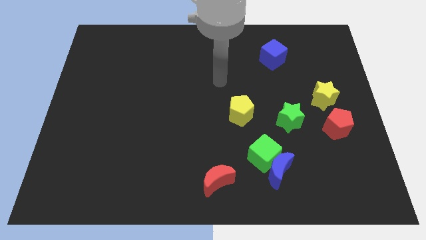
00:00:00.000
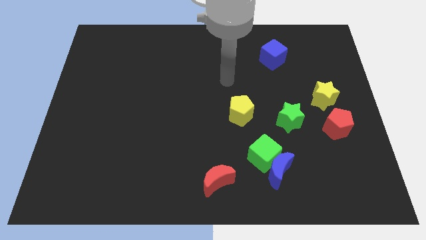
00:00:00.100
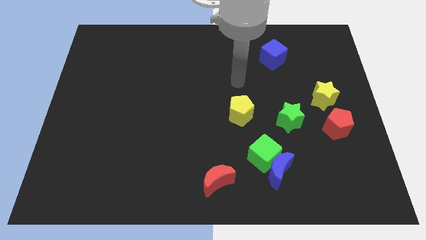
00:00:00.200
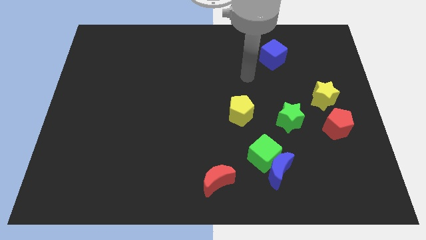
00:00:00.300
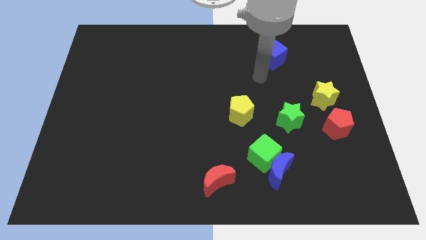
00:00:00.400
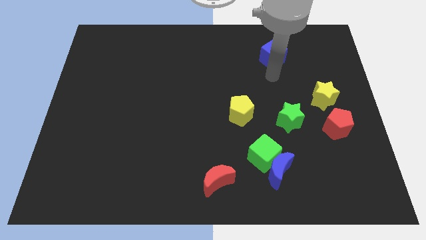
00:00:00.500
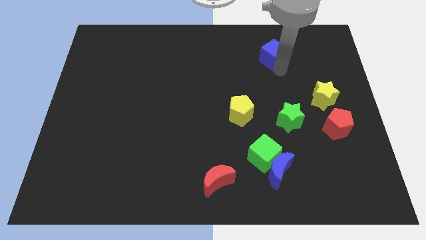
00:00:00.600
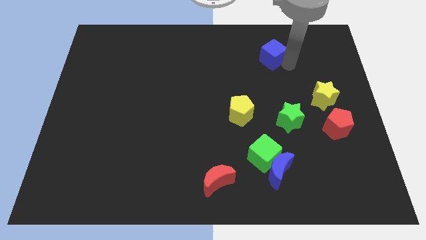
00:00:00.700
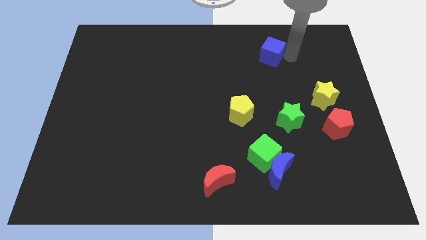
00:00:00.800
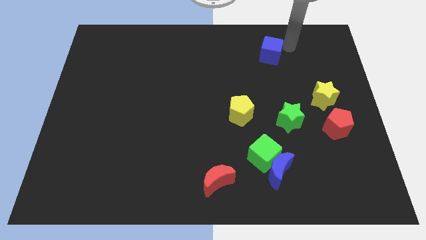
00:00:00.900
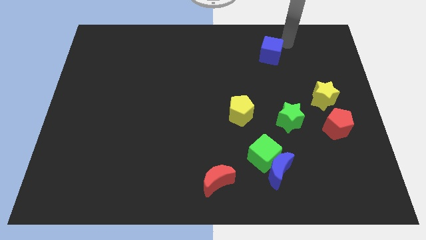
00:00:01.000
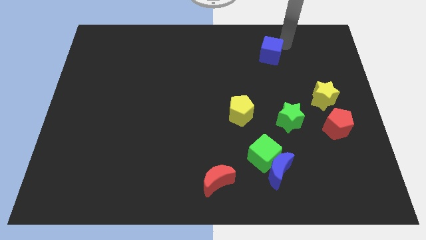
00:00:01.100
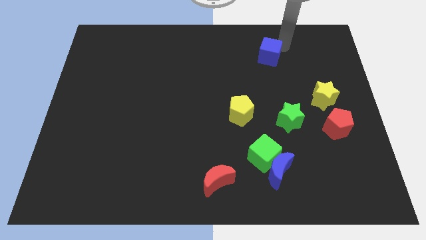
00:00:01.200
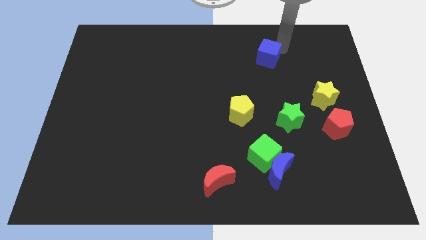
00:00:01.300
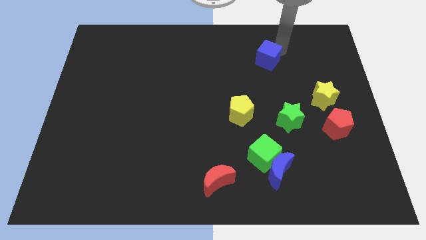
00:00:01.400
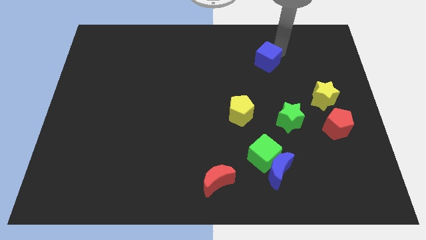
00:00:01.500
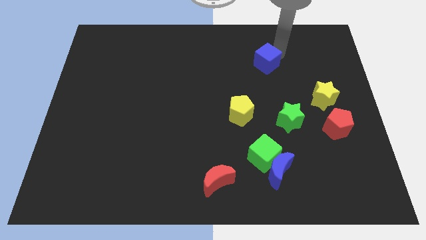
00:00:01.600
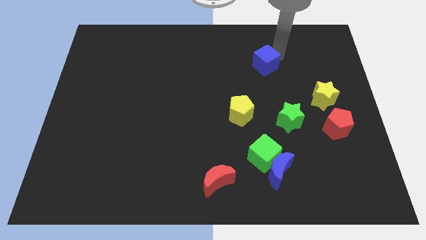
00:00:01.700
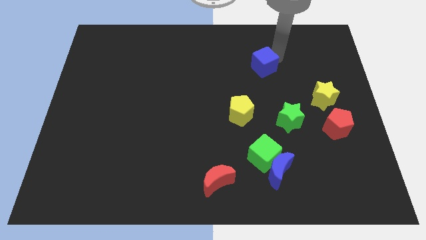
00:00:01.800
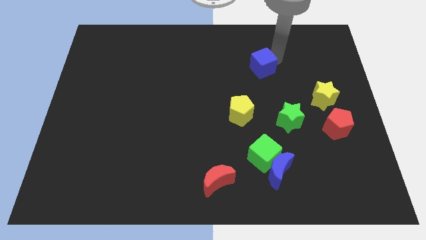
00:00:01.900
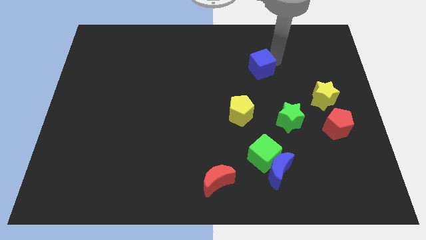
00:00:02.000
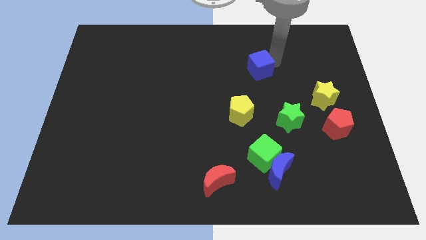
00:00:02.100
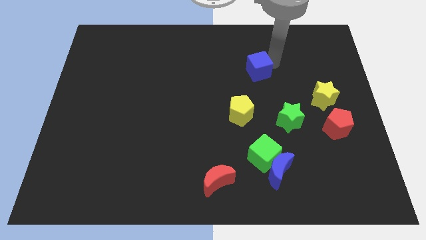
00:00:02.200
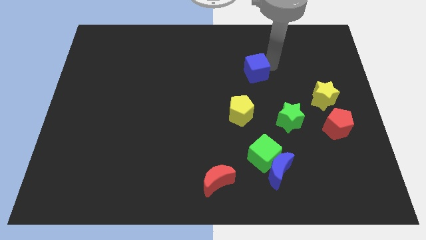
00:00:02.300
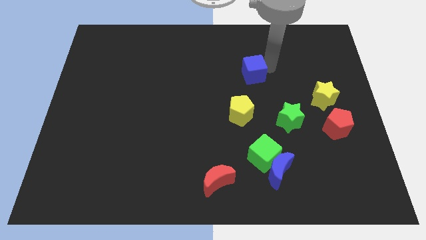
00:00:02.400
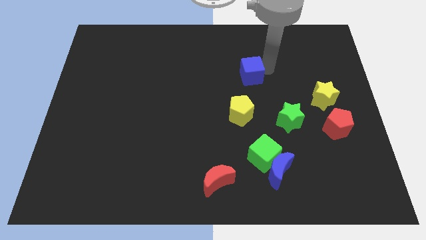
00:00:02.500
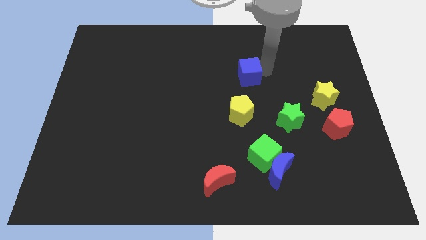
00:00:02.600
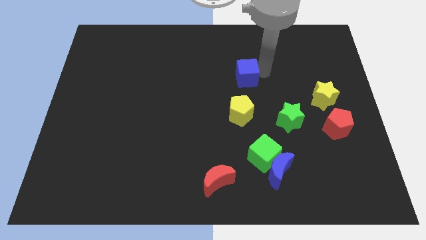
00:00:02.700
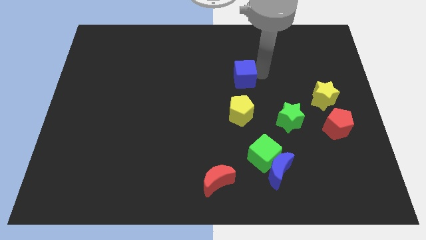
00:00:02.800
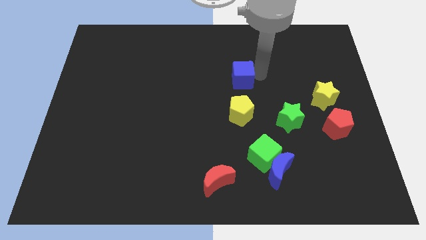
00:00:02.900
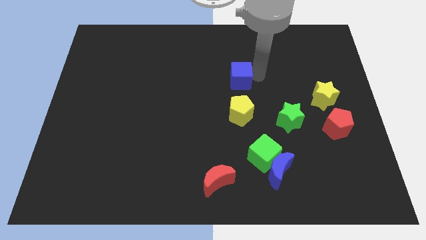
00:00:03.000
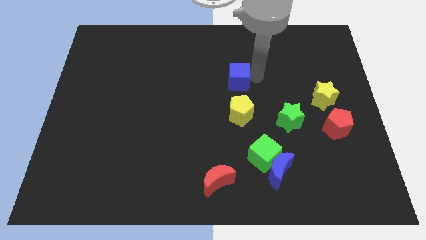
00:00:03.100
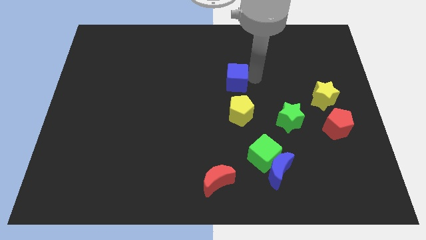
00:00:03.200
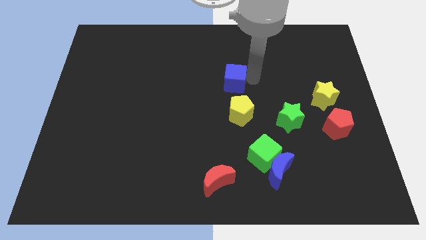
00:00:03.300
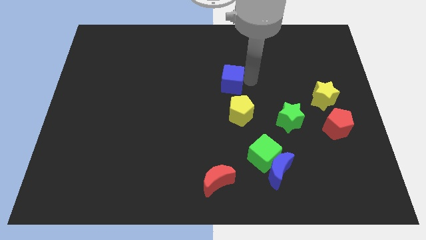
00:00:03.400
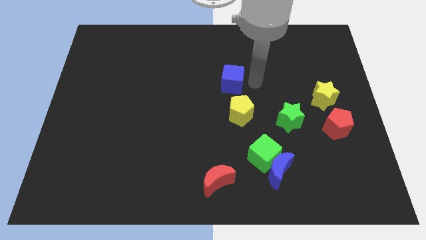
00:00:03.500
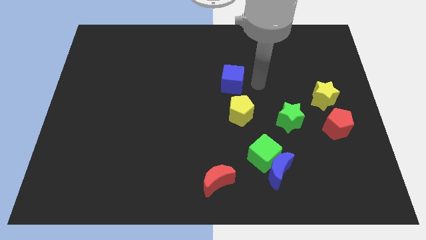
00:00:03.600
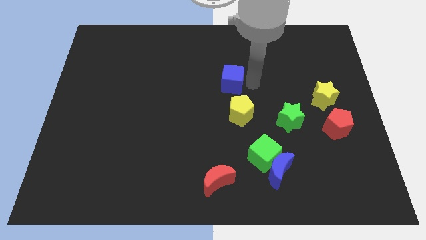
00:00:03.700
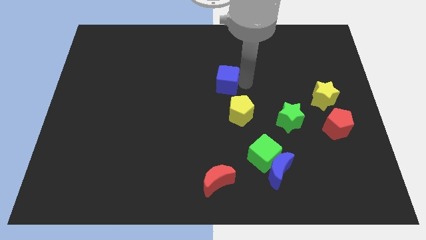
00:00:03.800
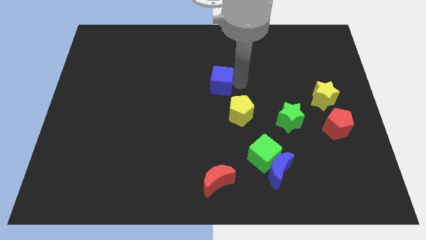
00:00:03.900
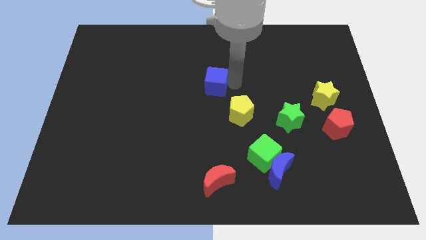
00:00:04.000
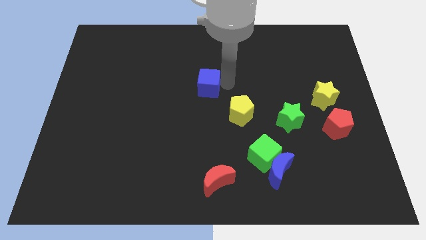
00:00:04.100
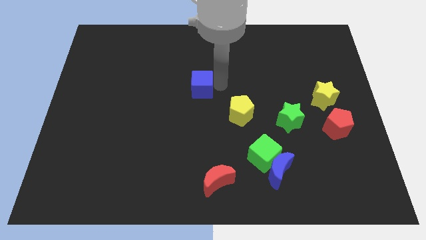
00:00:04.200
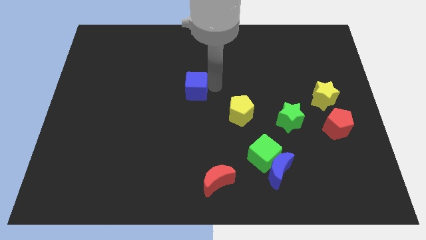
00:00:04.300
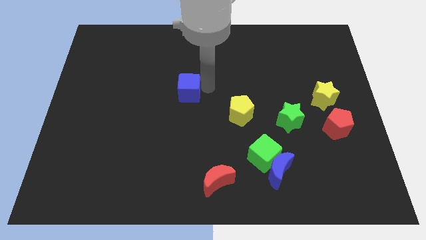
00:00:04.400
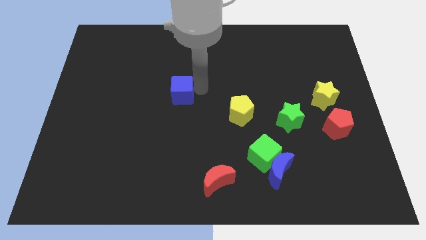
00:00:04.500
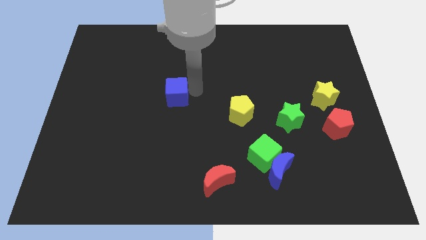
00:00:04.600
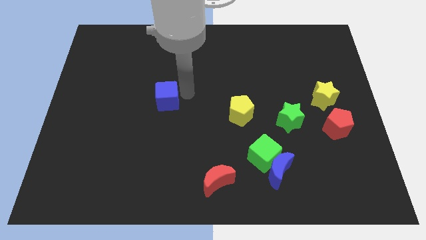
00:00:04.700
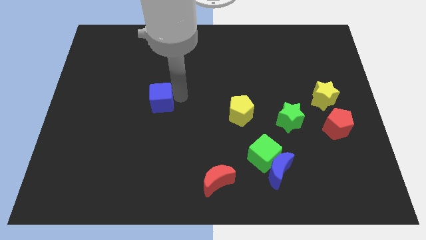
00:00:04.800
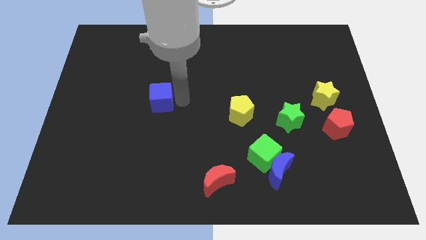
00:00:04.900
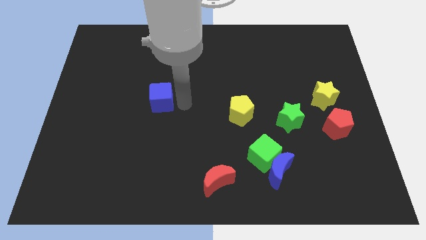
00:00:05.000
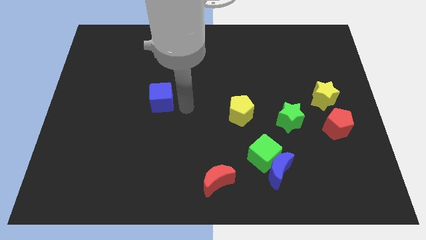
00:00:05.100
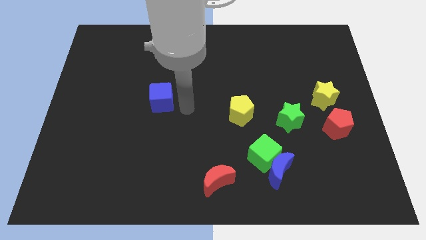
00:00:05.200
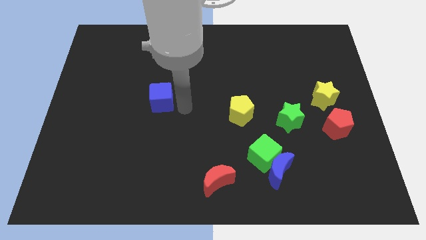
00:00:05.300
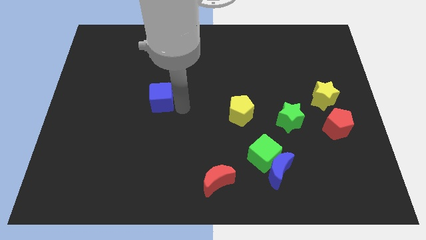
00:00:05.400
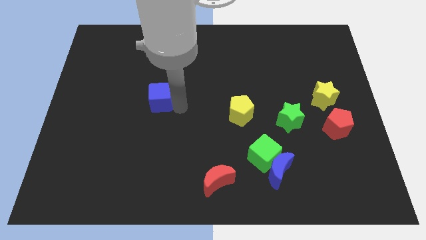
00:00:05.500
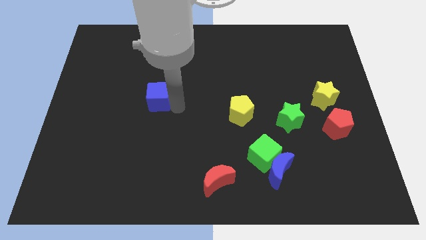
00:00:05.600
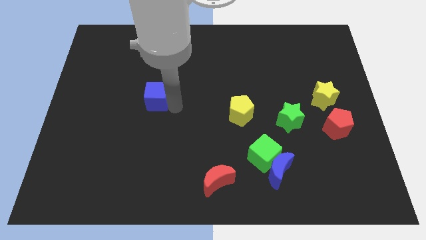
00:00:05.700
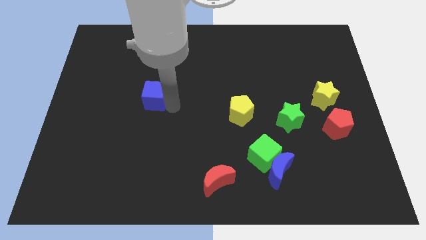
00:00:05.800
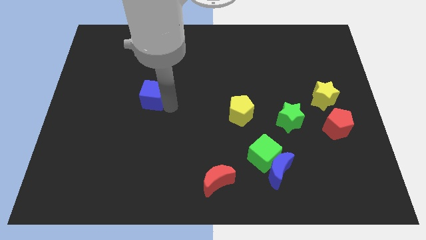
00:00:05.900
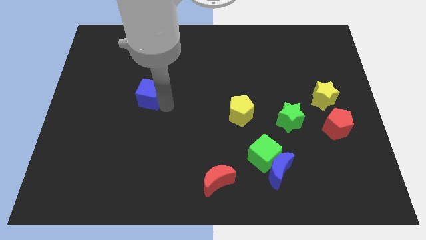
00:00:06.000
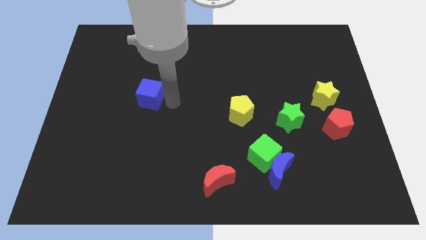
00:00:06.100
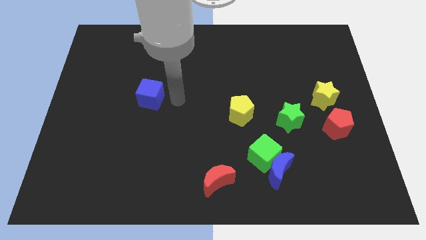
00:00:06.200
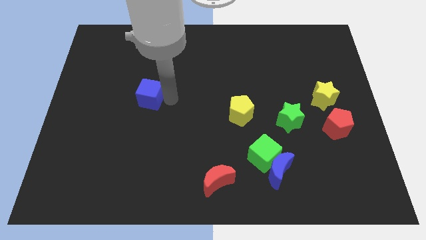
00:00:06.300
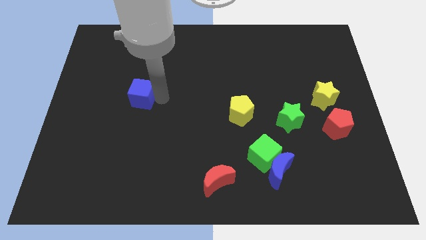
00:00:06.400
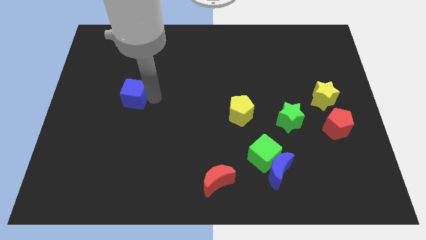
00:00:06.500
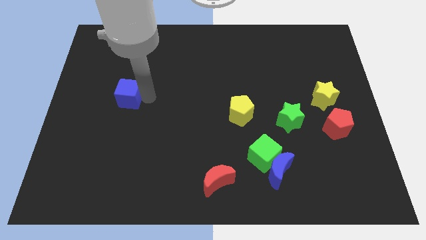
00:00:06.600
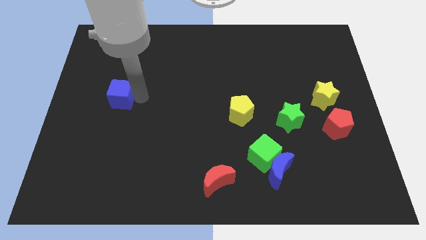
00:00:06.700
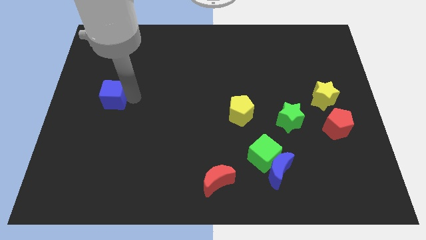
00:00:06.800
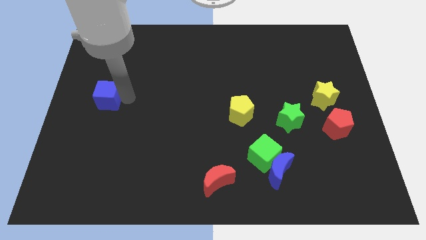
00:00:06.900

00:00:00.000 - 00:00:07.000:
push the blue cube to the left side

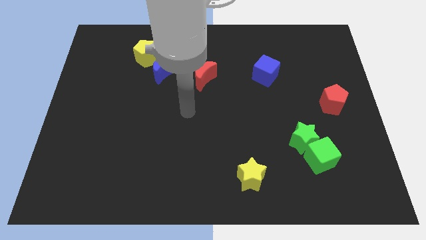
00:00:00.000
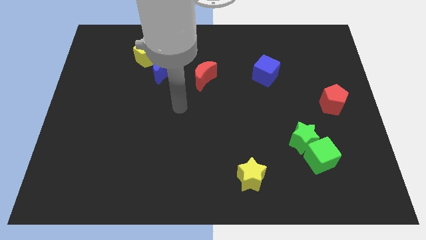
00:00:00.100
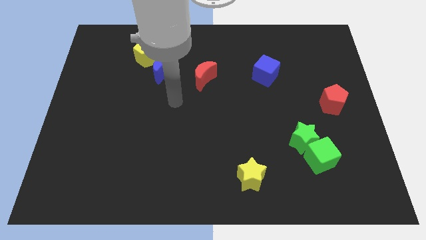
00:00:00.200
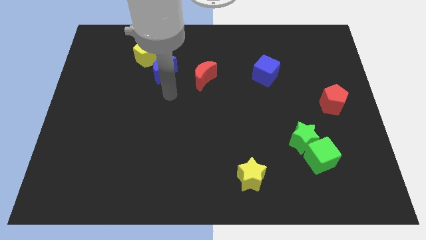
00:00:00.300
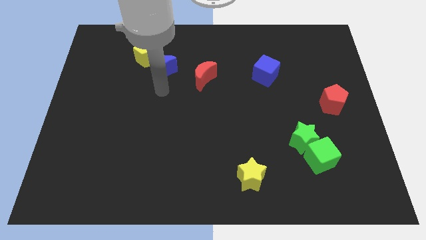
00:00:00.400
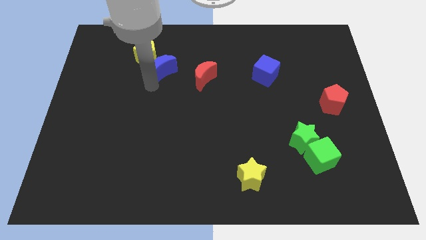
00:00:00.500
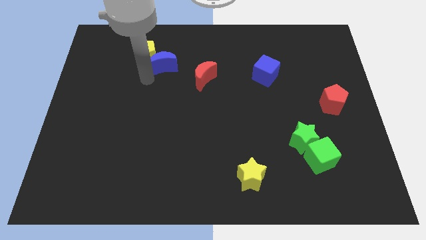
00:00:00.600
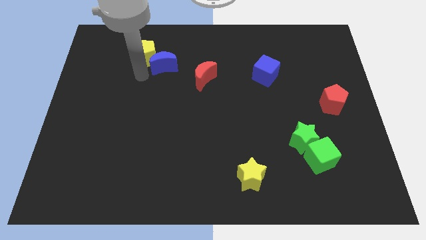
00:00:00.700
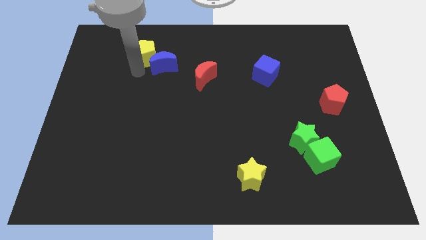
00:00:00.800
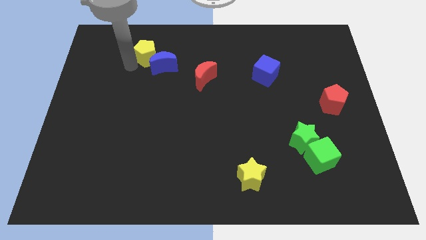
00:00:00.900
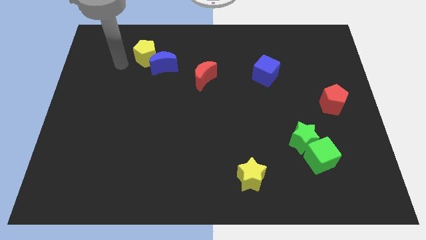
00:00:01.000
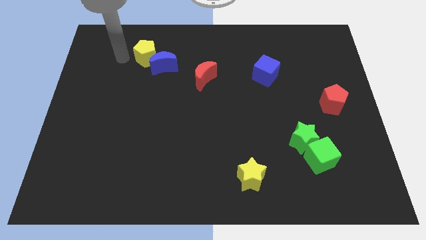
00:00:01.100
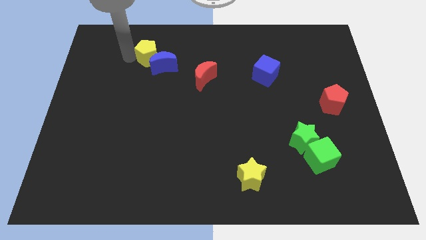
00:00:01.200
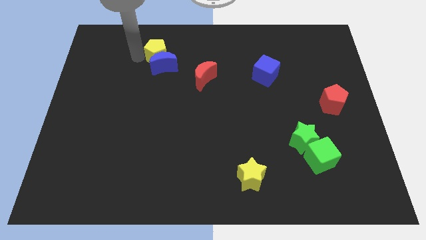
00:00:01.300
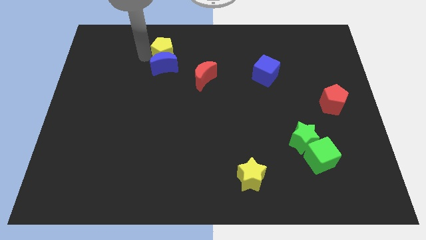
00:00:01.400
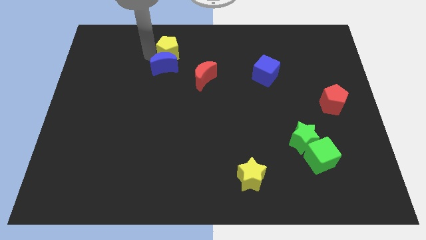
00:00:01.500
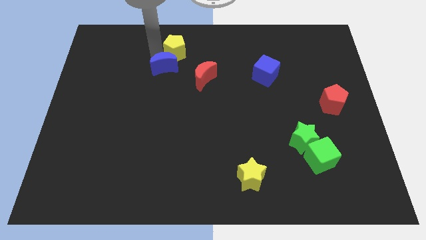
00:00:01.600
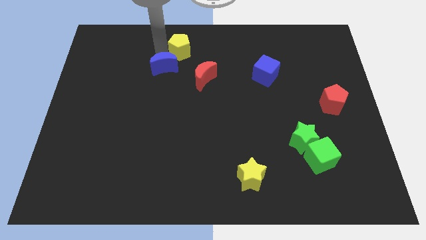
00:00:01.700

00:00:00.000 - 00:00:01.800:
push the yellow pentagon to the top side
